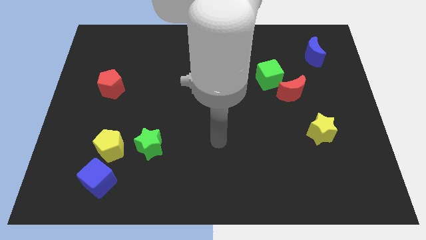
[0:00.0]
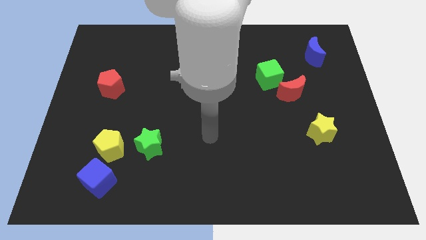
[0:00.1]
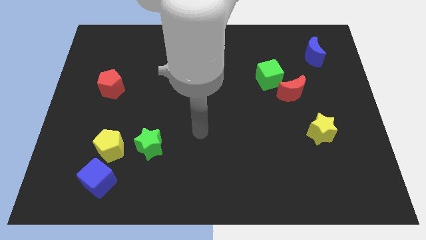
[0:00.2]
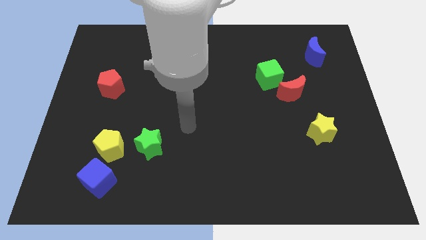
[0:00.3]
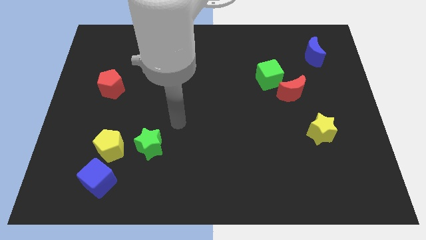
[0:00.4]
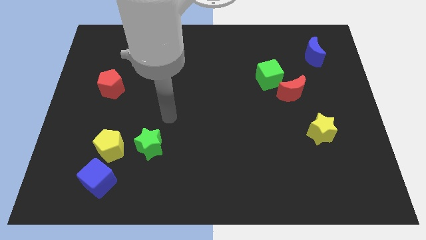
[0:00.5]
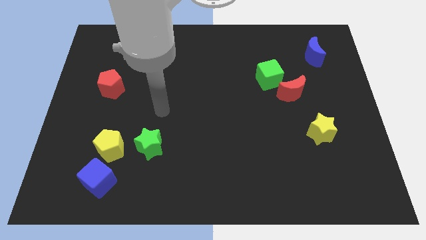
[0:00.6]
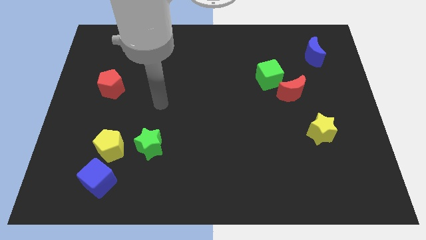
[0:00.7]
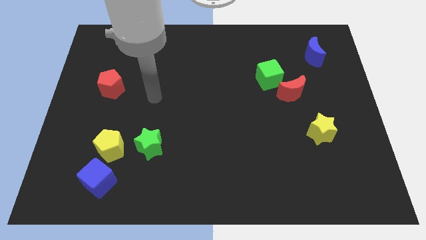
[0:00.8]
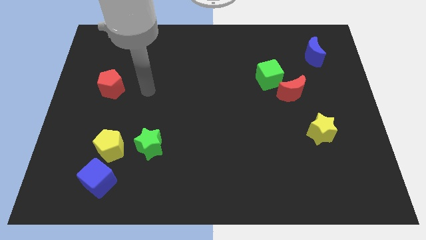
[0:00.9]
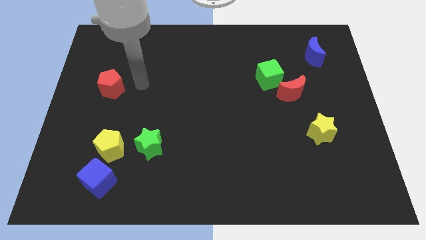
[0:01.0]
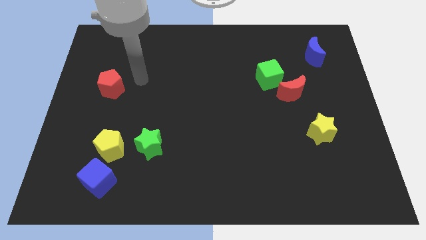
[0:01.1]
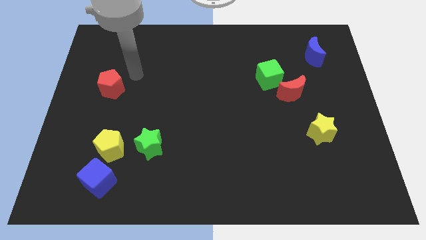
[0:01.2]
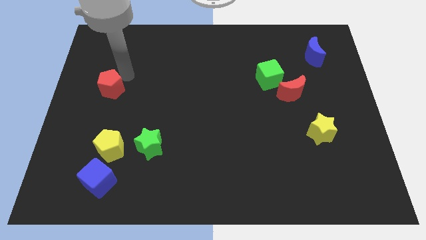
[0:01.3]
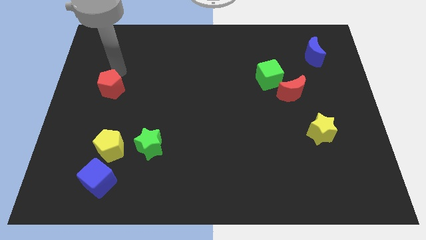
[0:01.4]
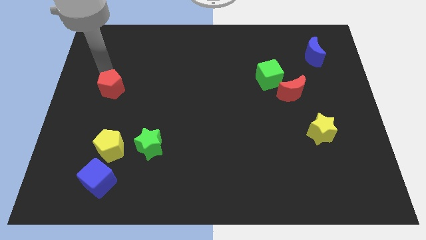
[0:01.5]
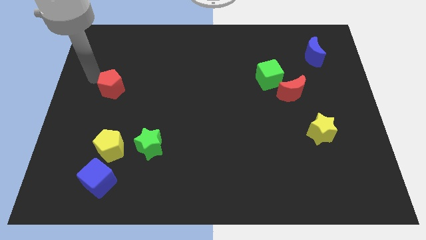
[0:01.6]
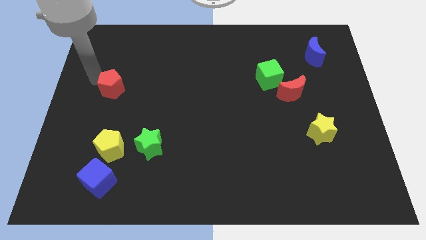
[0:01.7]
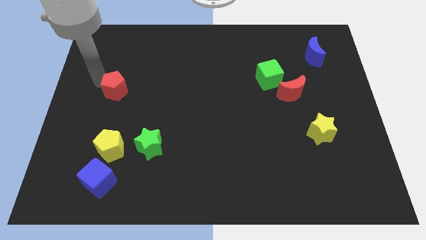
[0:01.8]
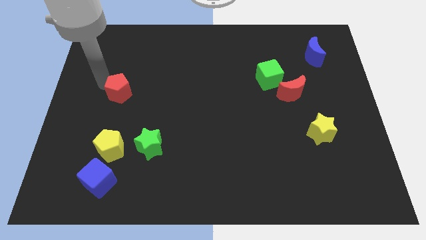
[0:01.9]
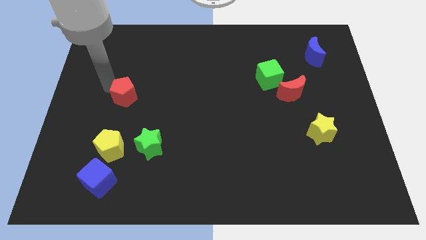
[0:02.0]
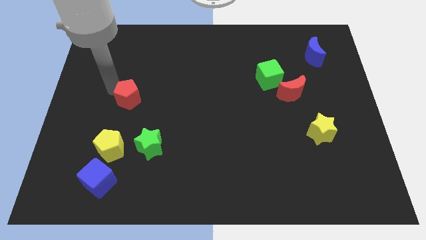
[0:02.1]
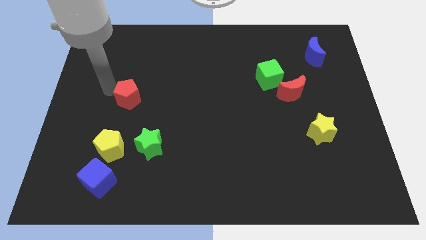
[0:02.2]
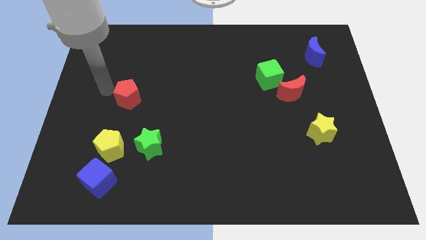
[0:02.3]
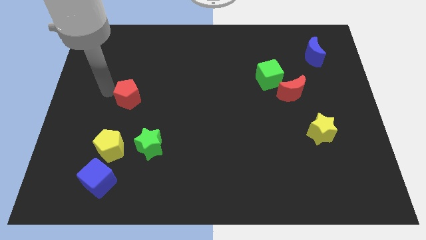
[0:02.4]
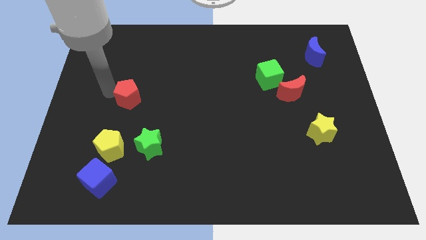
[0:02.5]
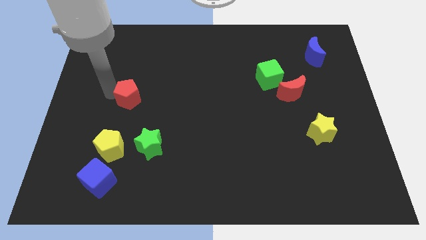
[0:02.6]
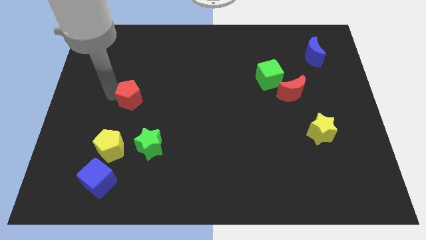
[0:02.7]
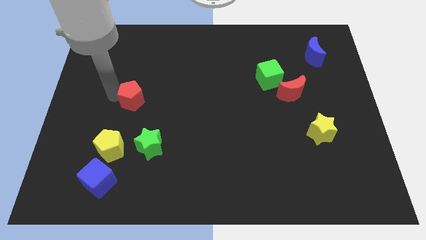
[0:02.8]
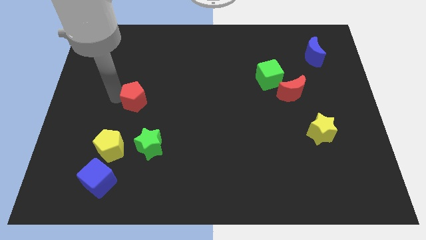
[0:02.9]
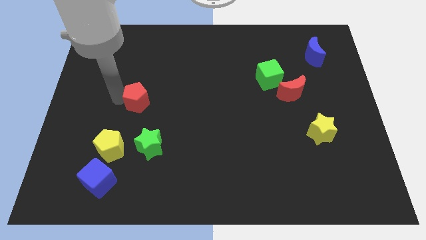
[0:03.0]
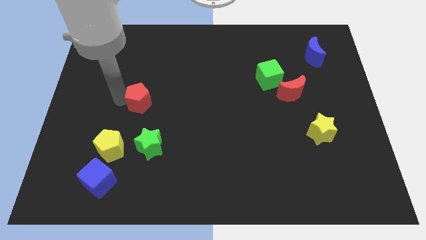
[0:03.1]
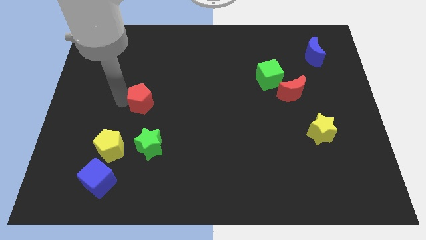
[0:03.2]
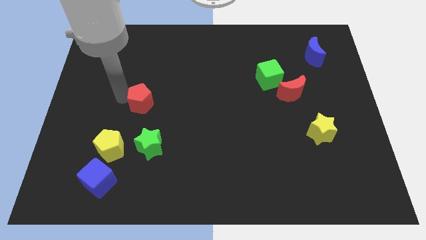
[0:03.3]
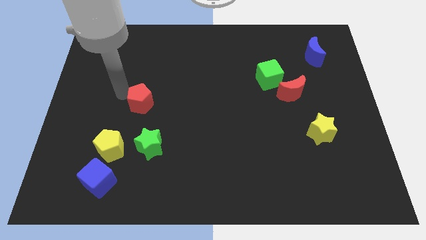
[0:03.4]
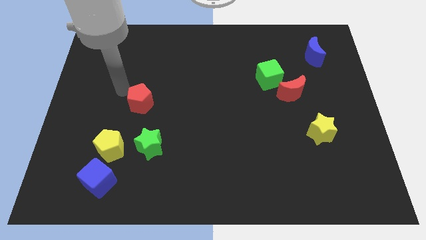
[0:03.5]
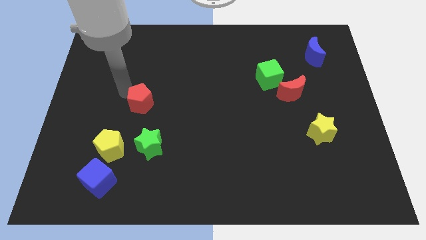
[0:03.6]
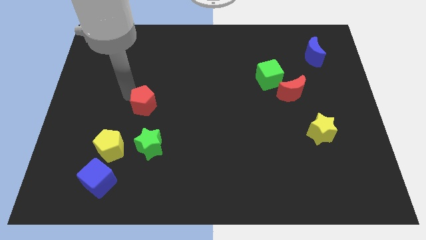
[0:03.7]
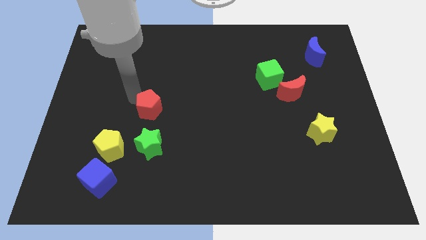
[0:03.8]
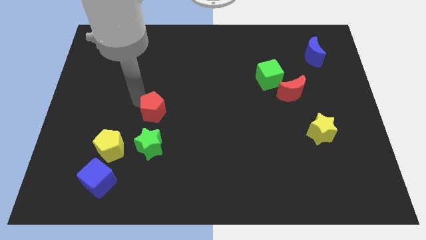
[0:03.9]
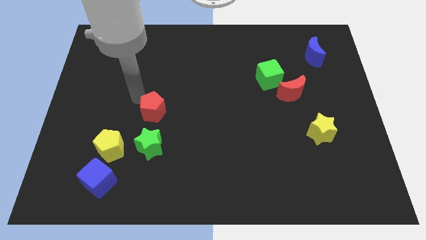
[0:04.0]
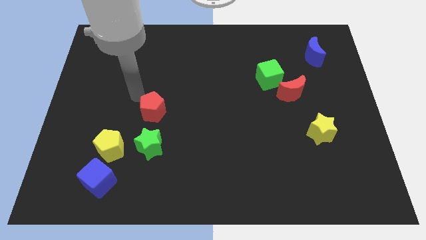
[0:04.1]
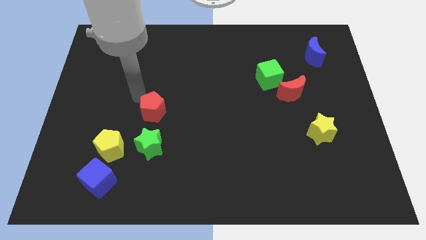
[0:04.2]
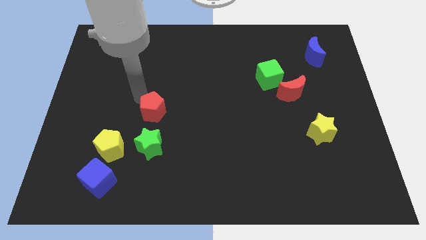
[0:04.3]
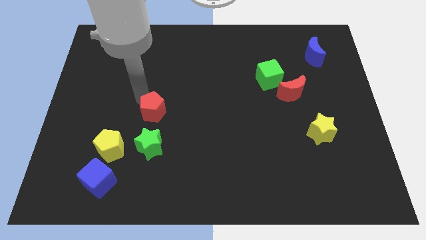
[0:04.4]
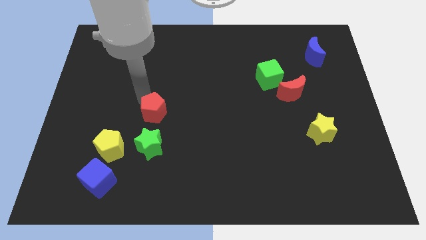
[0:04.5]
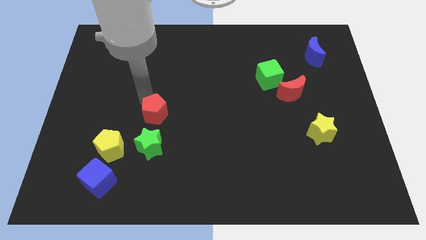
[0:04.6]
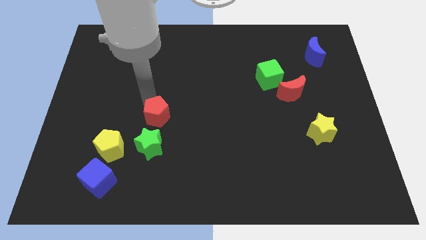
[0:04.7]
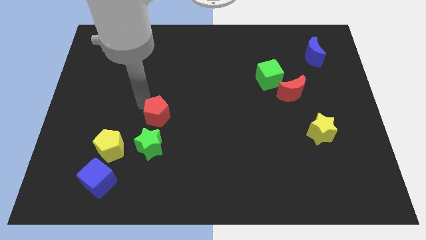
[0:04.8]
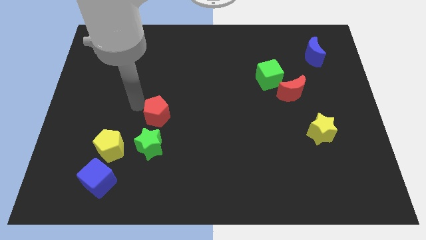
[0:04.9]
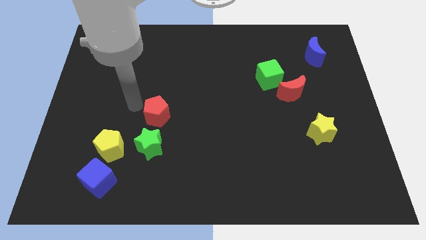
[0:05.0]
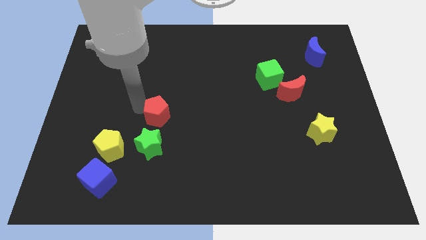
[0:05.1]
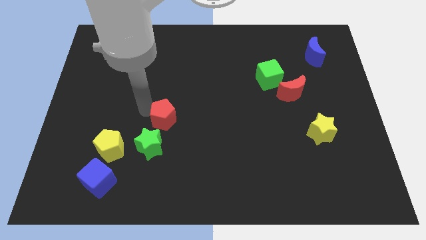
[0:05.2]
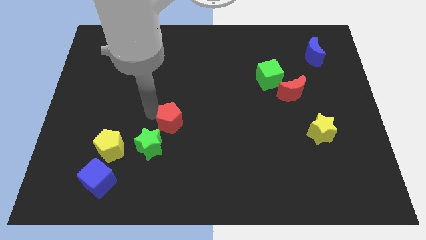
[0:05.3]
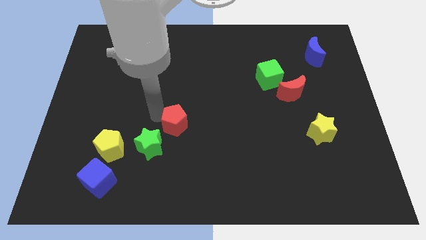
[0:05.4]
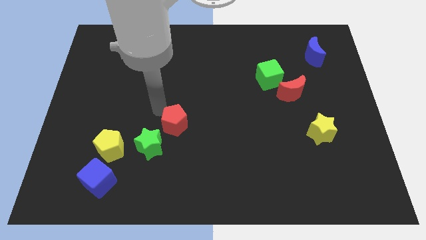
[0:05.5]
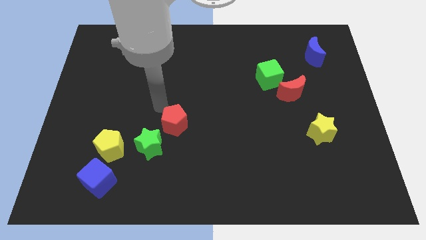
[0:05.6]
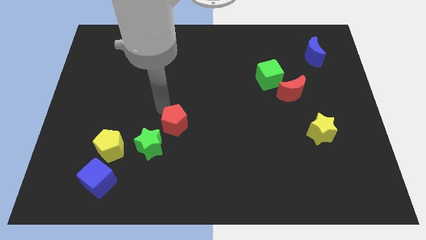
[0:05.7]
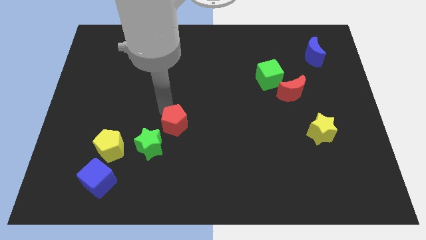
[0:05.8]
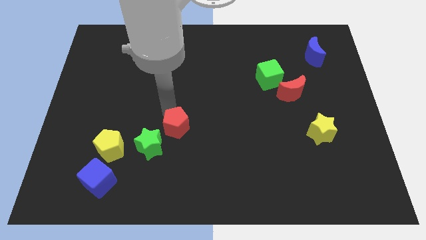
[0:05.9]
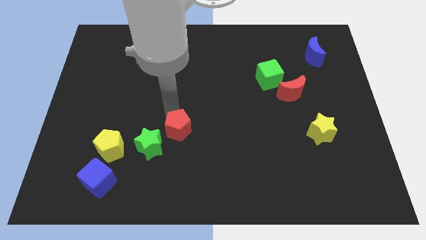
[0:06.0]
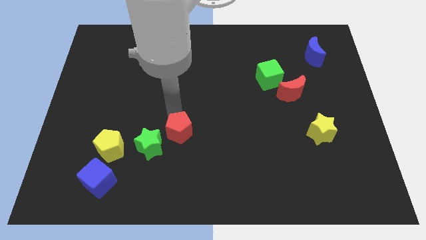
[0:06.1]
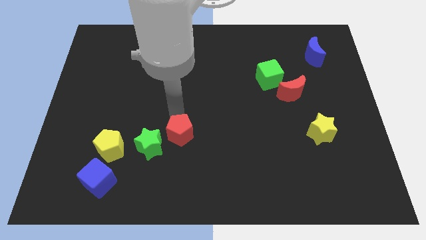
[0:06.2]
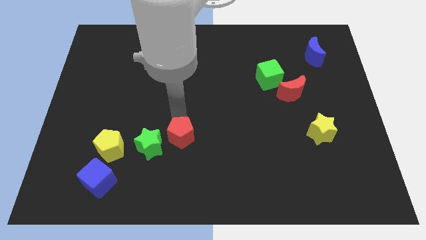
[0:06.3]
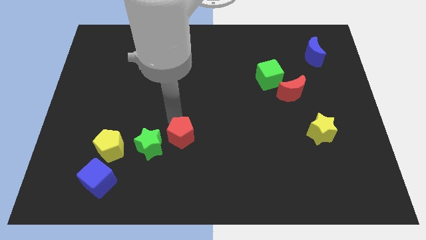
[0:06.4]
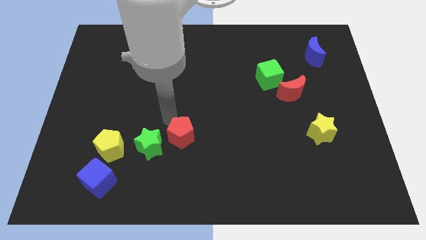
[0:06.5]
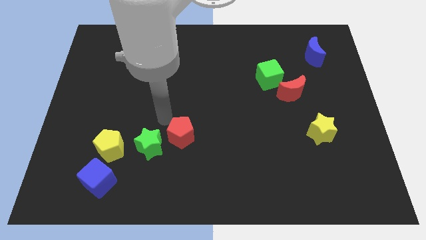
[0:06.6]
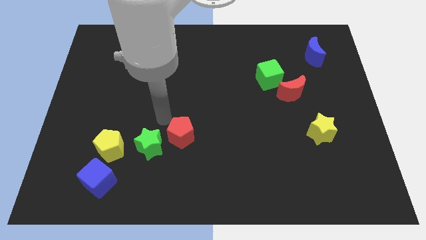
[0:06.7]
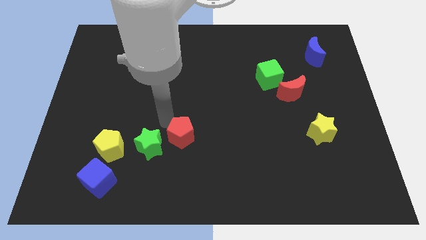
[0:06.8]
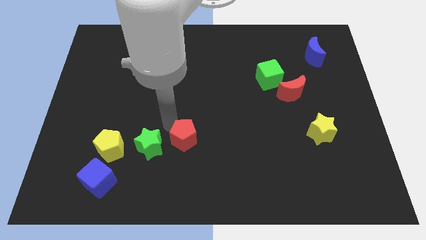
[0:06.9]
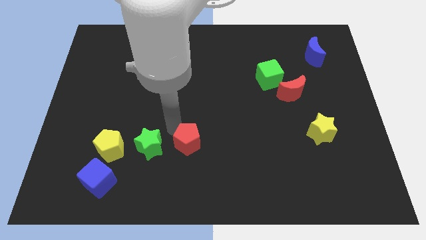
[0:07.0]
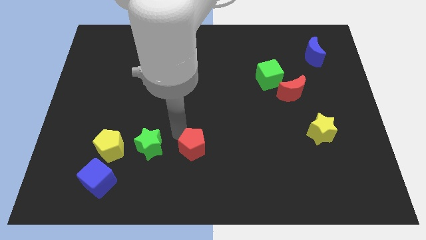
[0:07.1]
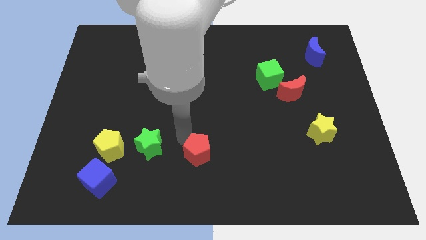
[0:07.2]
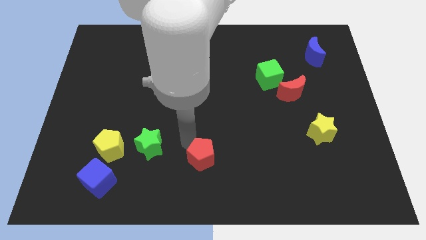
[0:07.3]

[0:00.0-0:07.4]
slide the red pentagon to the bottom side

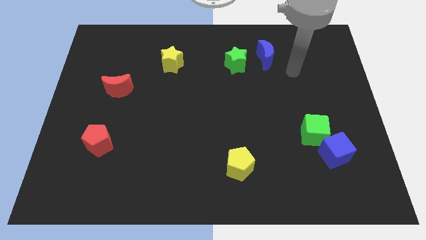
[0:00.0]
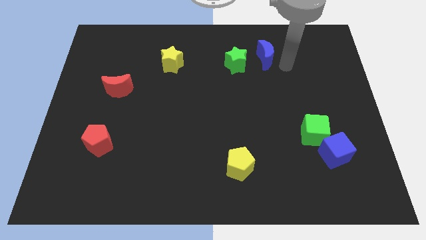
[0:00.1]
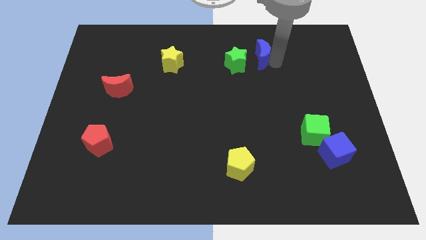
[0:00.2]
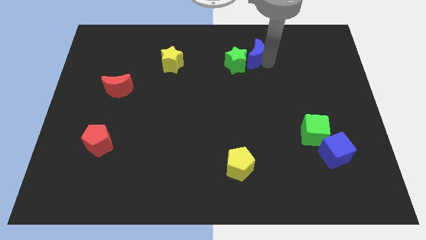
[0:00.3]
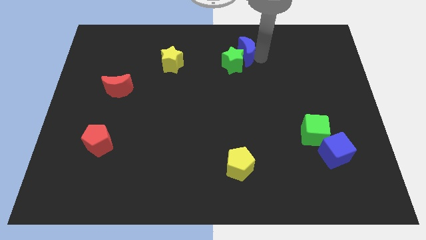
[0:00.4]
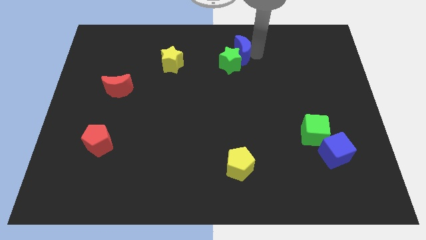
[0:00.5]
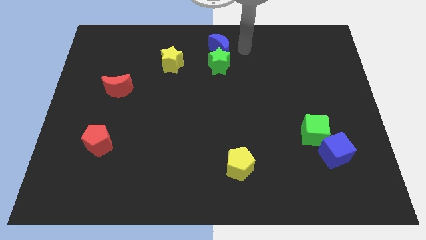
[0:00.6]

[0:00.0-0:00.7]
move the green star to the center
